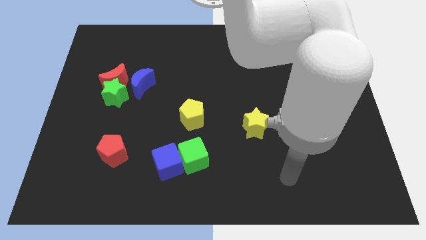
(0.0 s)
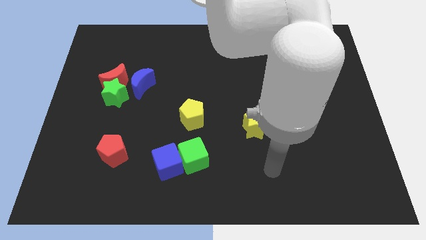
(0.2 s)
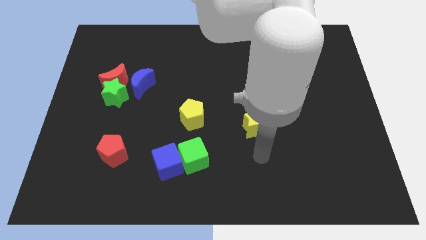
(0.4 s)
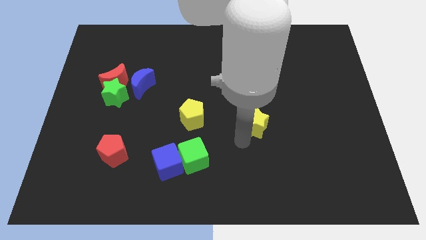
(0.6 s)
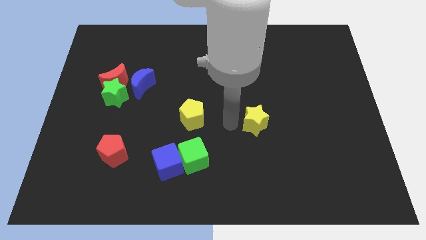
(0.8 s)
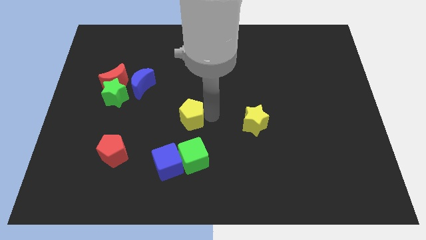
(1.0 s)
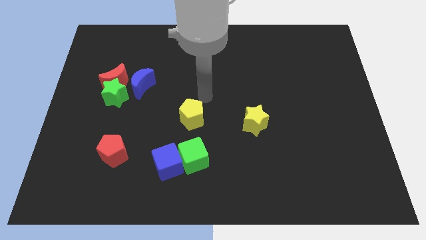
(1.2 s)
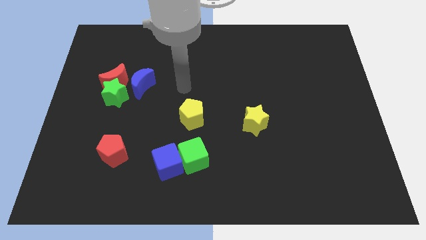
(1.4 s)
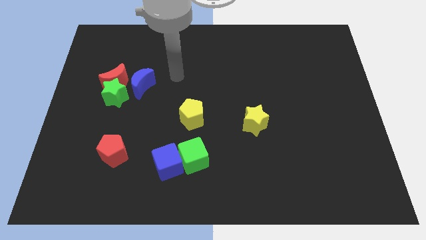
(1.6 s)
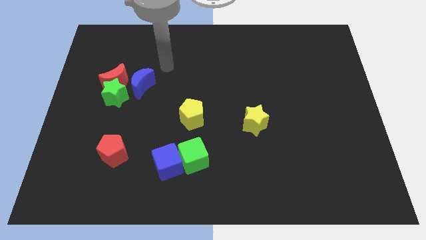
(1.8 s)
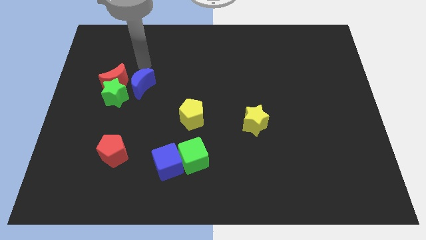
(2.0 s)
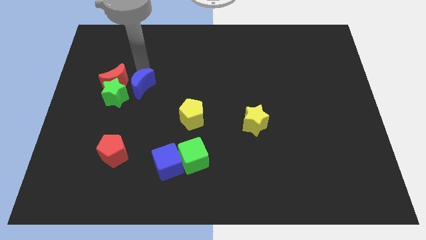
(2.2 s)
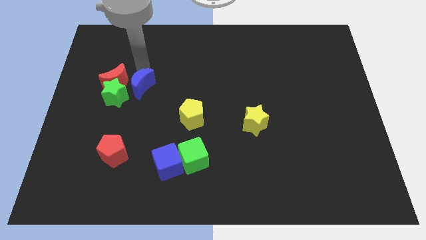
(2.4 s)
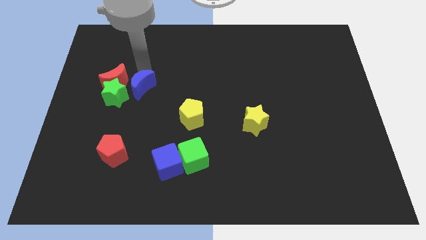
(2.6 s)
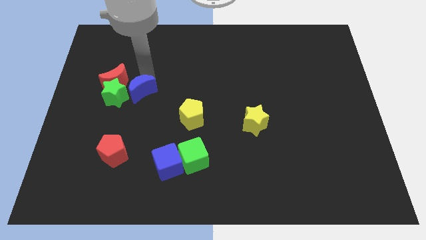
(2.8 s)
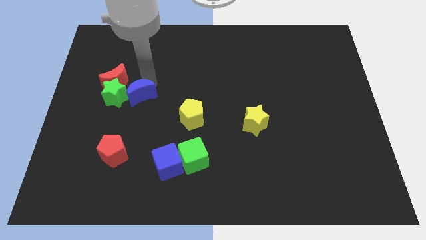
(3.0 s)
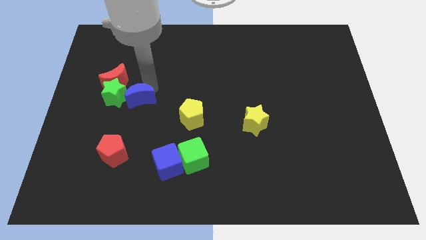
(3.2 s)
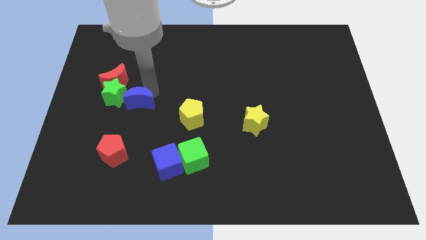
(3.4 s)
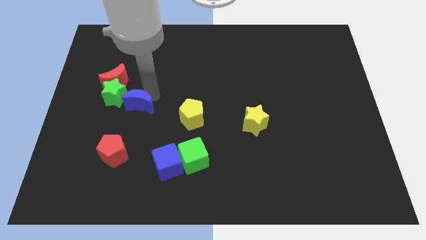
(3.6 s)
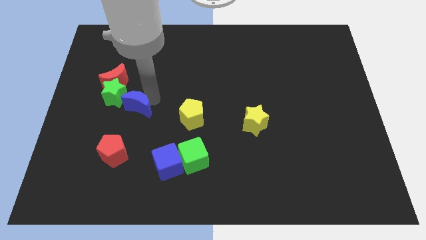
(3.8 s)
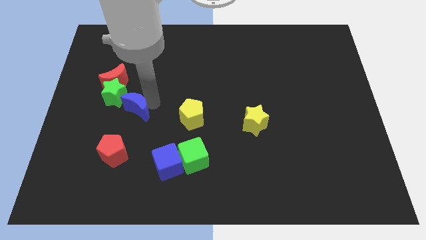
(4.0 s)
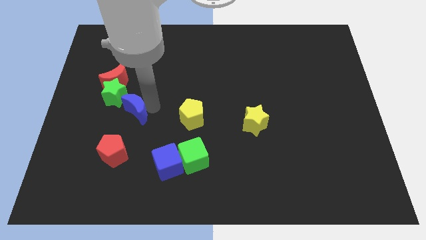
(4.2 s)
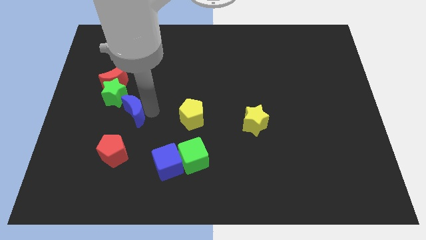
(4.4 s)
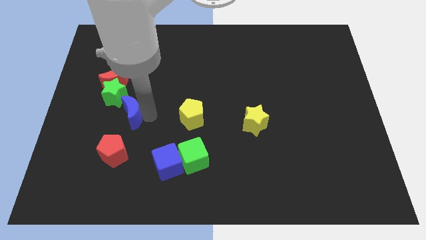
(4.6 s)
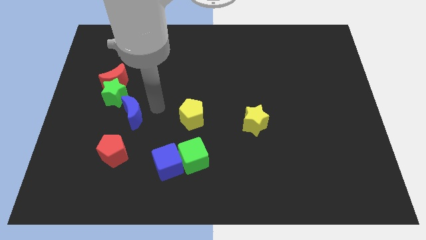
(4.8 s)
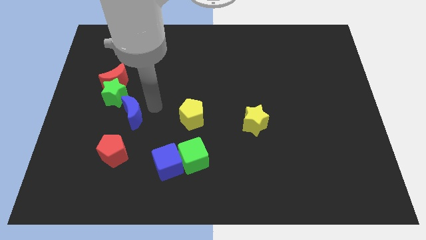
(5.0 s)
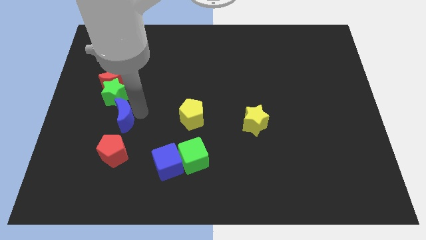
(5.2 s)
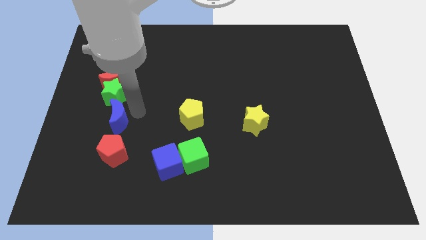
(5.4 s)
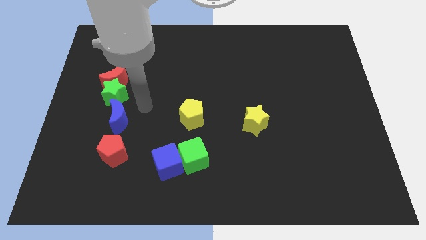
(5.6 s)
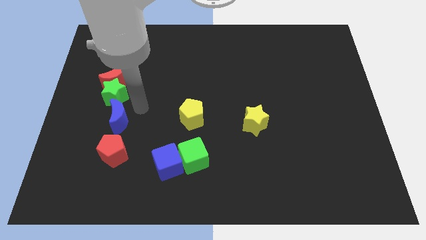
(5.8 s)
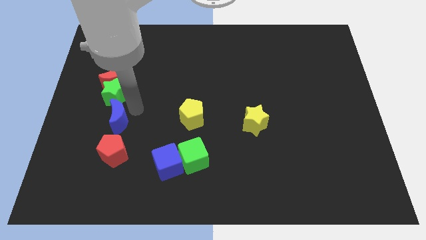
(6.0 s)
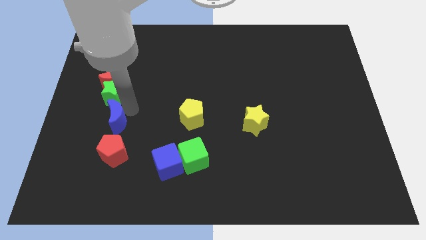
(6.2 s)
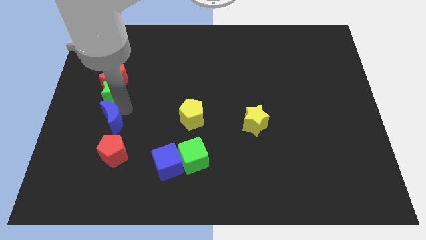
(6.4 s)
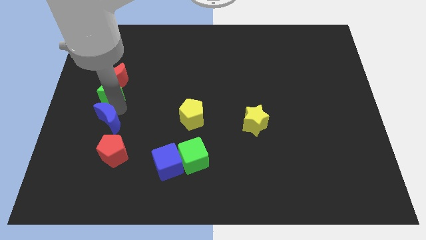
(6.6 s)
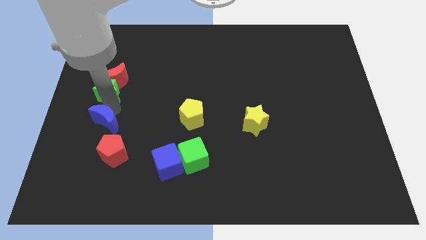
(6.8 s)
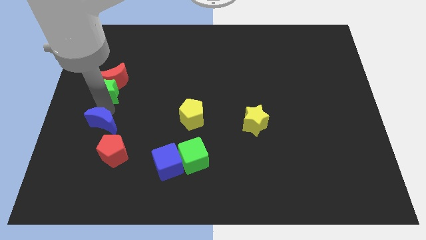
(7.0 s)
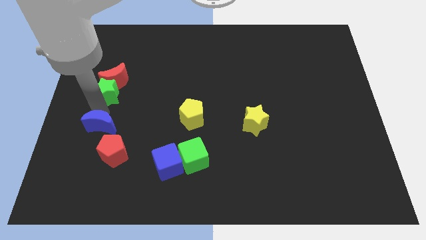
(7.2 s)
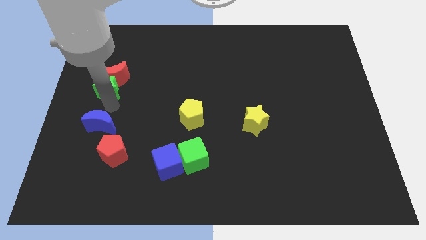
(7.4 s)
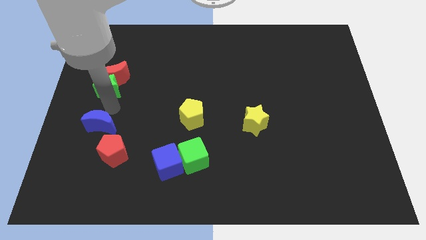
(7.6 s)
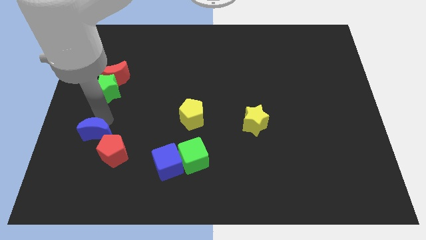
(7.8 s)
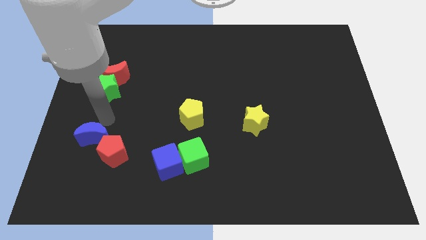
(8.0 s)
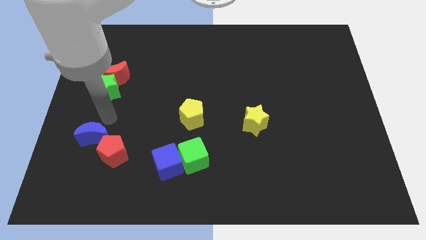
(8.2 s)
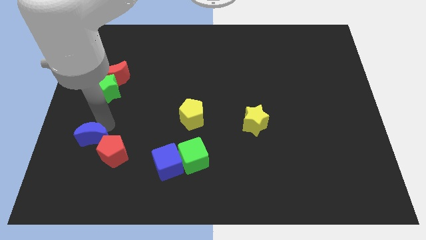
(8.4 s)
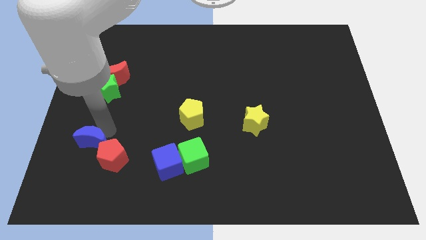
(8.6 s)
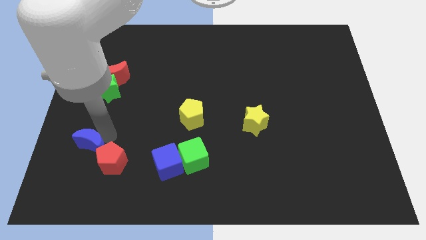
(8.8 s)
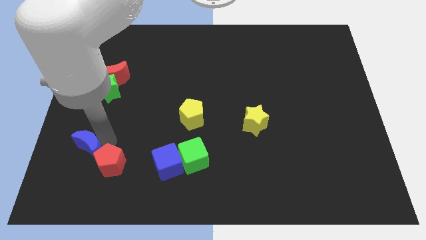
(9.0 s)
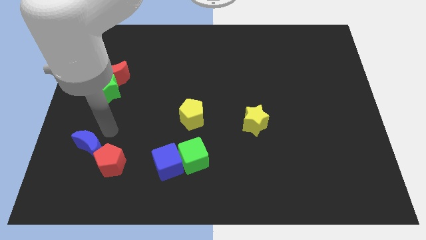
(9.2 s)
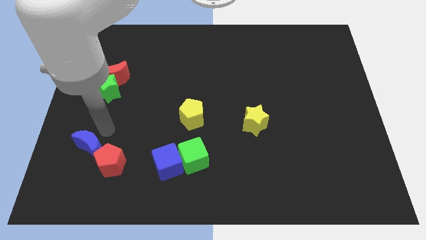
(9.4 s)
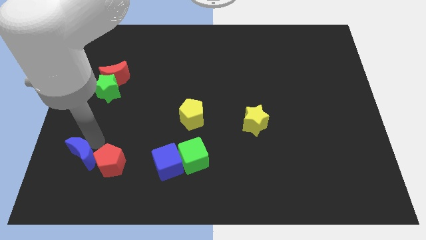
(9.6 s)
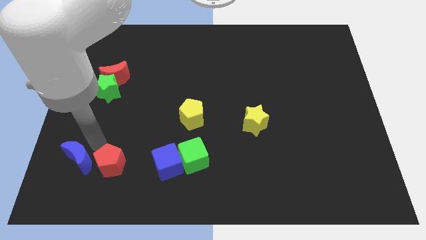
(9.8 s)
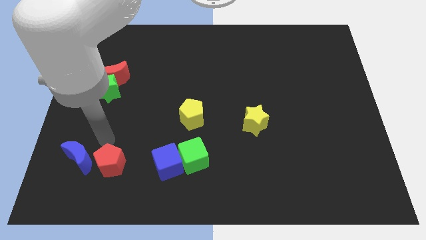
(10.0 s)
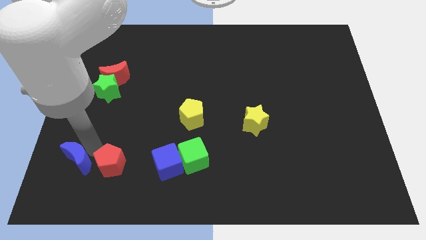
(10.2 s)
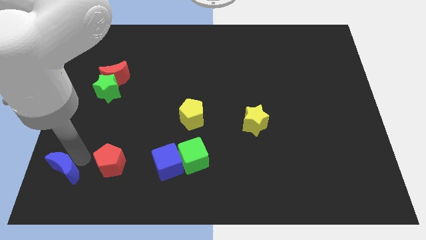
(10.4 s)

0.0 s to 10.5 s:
move the blue moon to the bottom left of the board

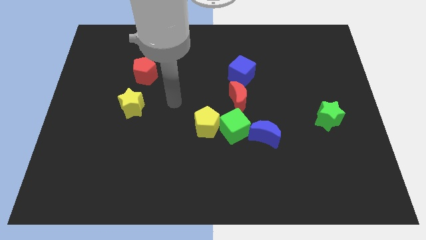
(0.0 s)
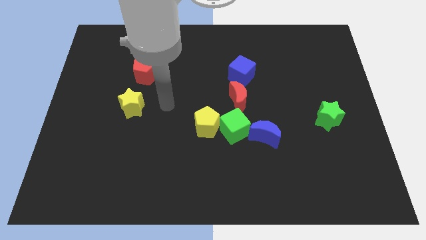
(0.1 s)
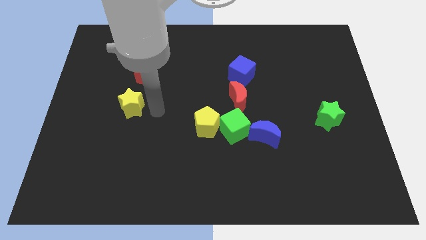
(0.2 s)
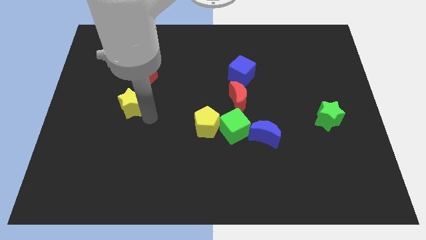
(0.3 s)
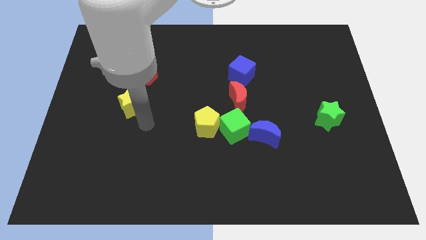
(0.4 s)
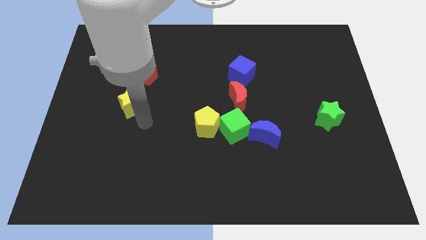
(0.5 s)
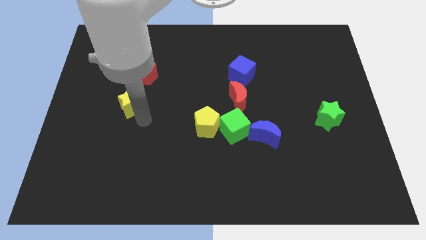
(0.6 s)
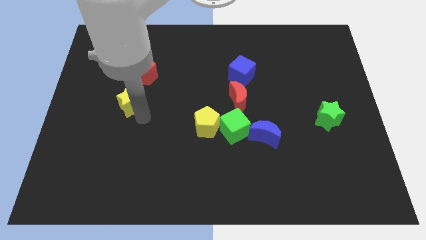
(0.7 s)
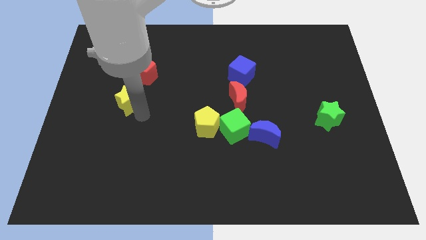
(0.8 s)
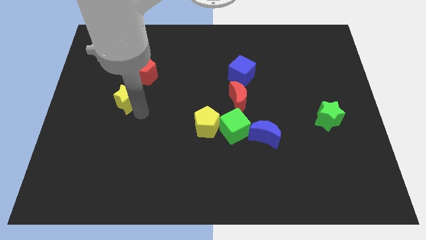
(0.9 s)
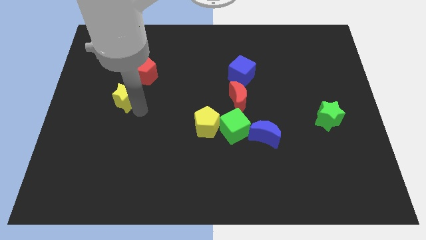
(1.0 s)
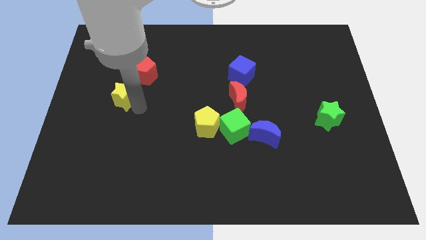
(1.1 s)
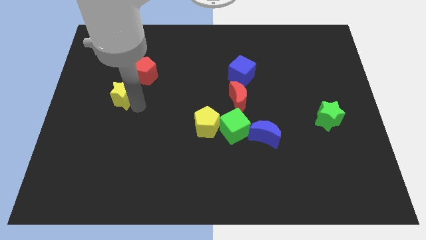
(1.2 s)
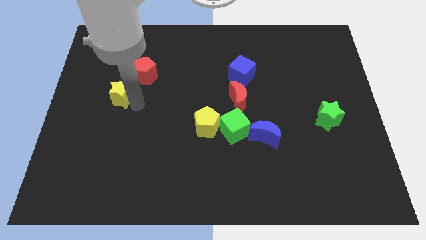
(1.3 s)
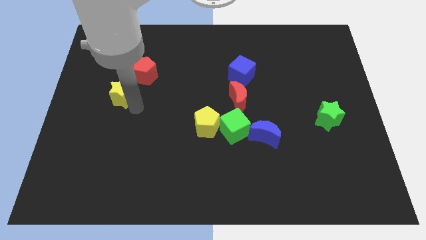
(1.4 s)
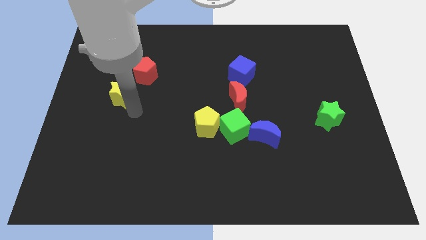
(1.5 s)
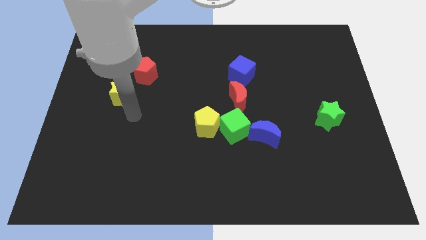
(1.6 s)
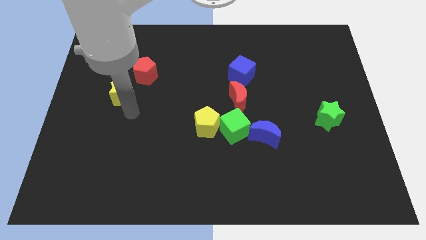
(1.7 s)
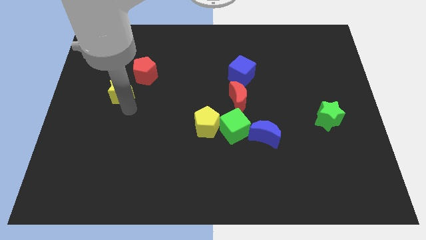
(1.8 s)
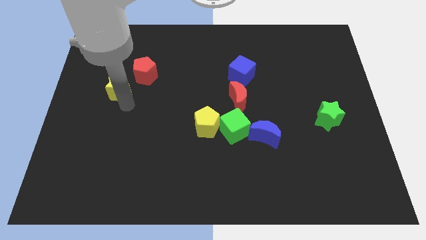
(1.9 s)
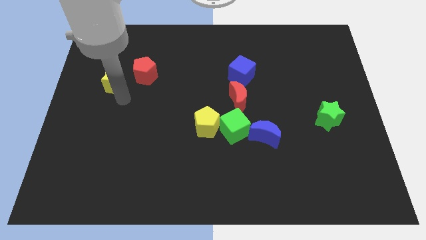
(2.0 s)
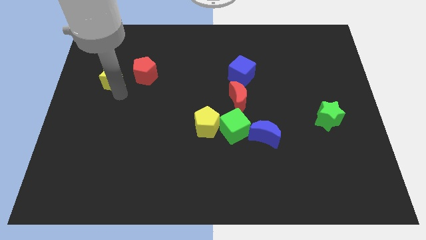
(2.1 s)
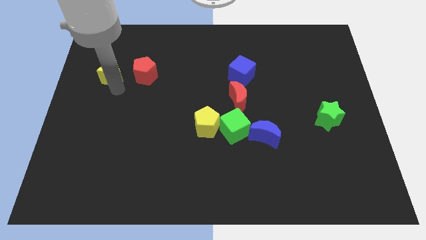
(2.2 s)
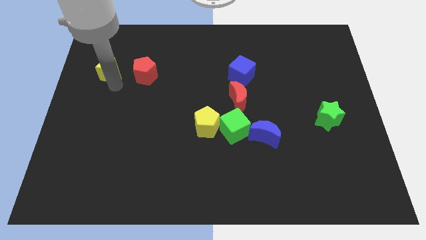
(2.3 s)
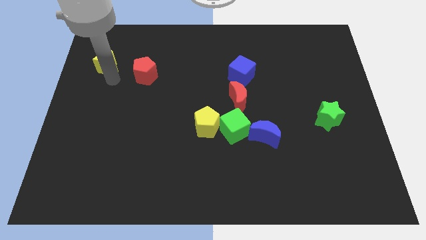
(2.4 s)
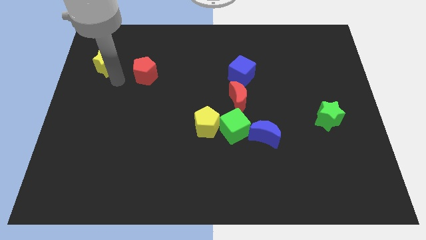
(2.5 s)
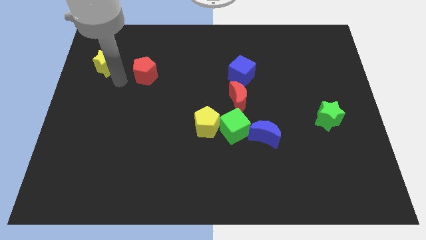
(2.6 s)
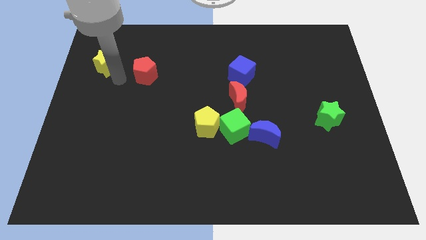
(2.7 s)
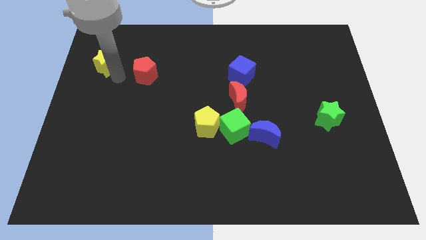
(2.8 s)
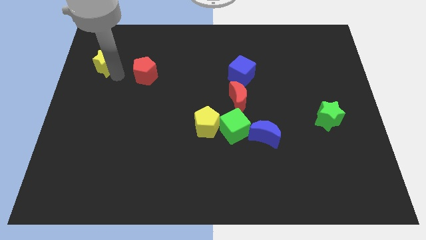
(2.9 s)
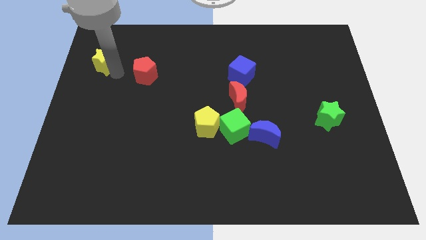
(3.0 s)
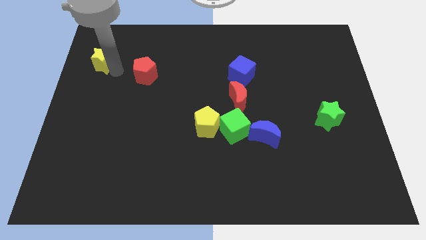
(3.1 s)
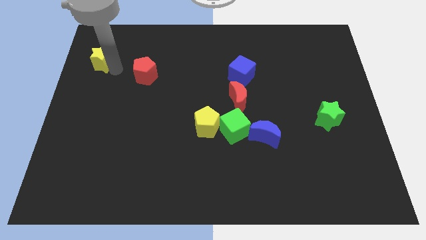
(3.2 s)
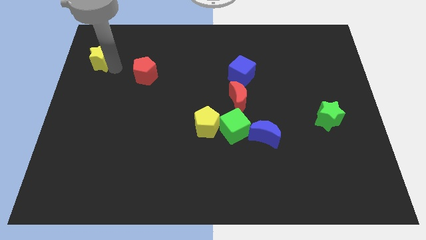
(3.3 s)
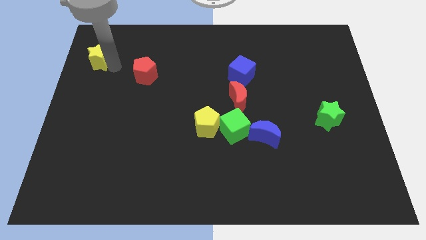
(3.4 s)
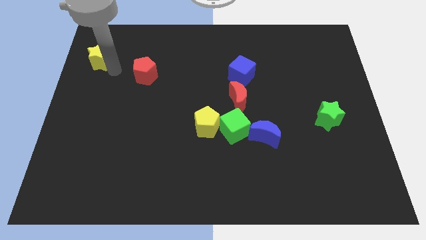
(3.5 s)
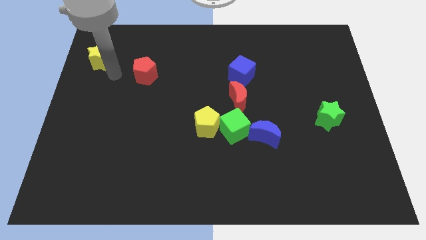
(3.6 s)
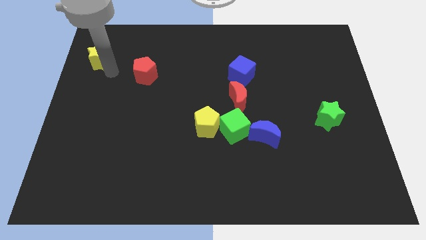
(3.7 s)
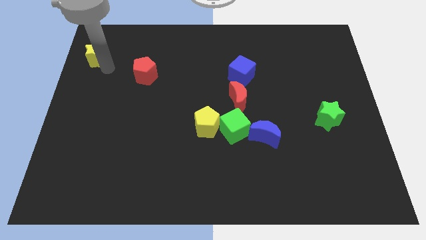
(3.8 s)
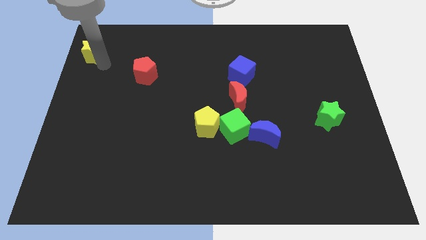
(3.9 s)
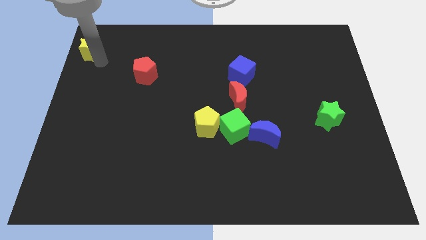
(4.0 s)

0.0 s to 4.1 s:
push the yellow star to the top left corner
